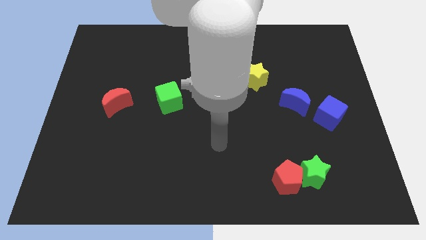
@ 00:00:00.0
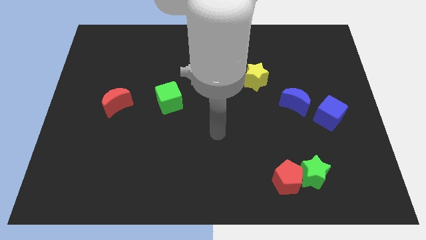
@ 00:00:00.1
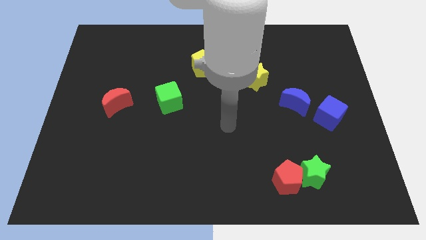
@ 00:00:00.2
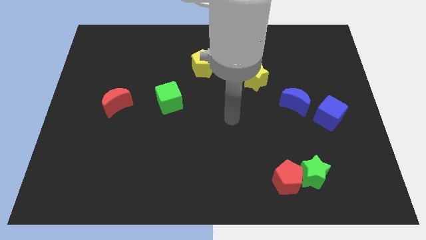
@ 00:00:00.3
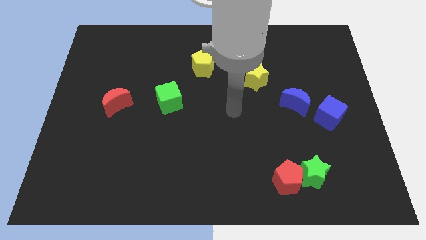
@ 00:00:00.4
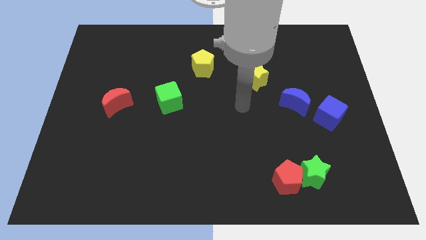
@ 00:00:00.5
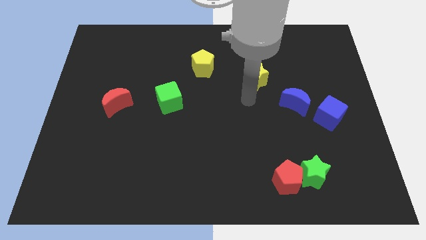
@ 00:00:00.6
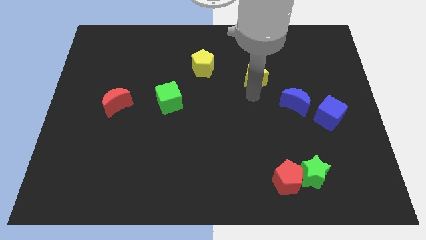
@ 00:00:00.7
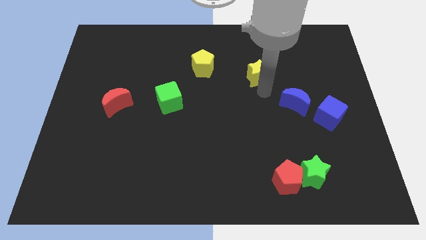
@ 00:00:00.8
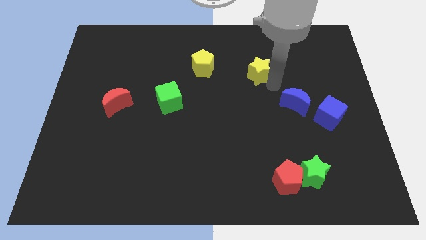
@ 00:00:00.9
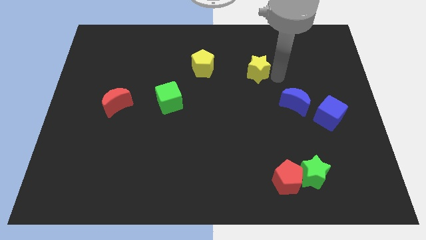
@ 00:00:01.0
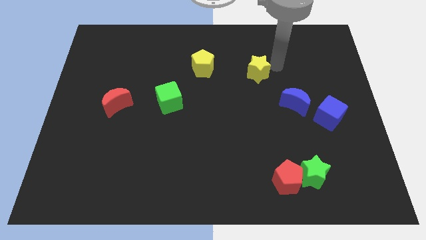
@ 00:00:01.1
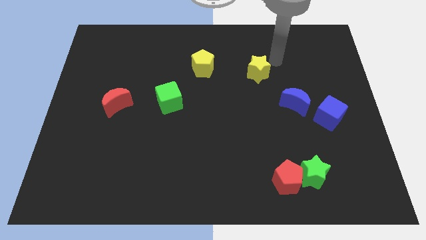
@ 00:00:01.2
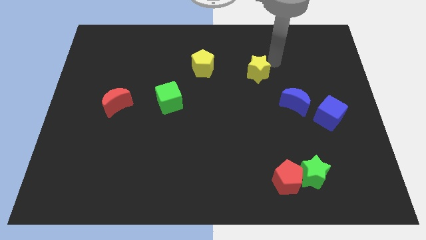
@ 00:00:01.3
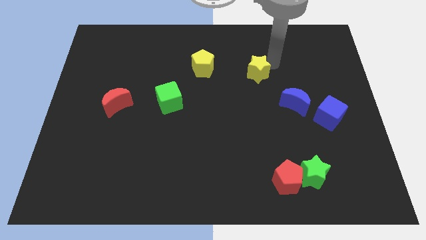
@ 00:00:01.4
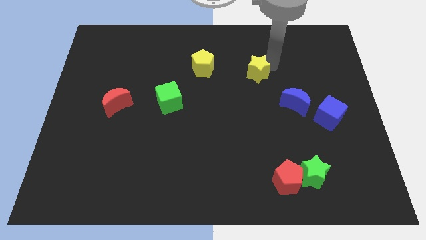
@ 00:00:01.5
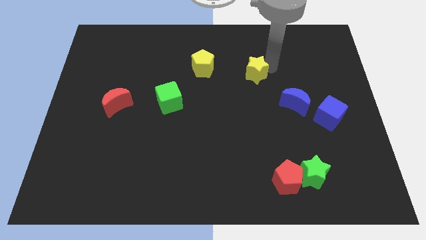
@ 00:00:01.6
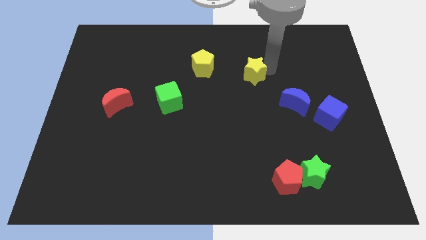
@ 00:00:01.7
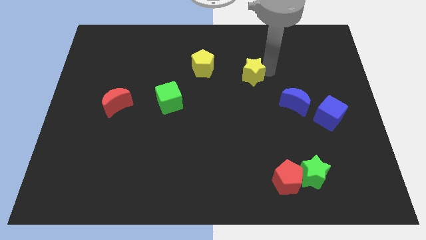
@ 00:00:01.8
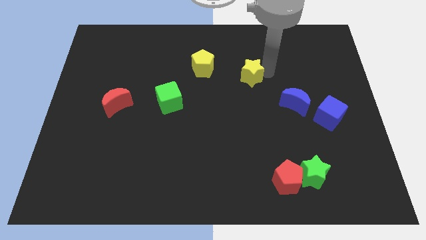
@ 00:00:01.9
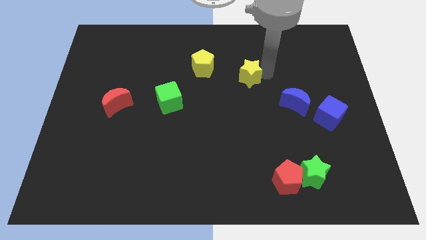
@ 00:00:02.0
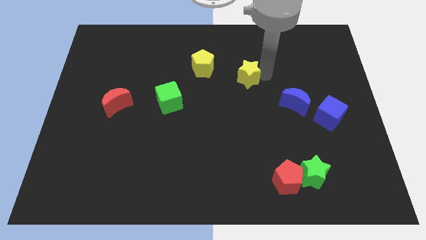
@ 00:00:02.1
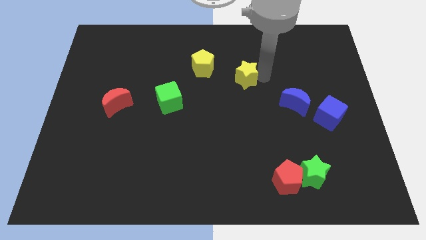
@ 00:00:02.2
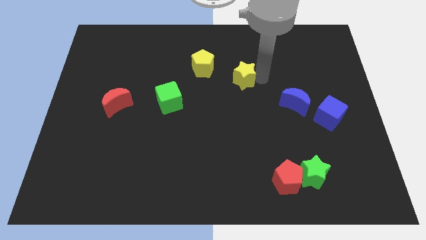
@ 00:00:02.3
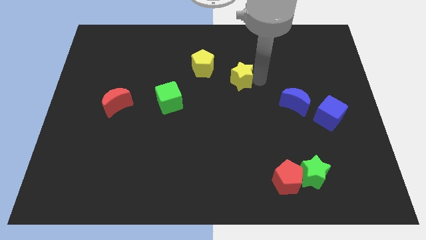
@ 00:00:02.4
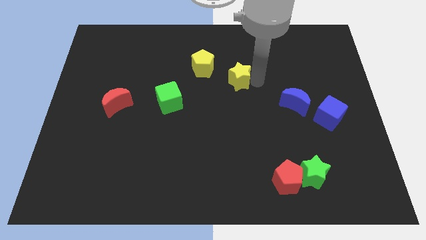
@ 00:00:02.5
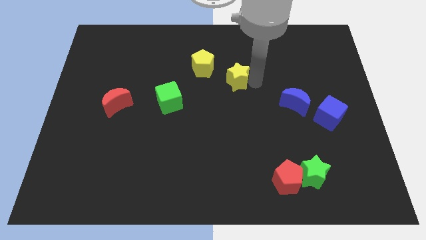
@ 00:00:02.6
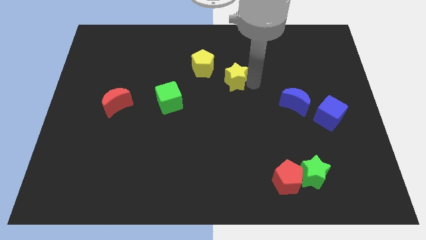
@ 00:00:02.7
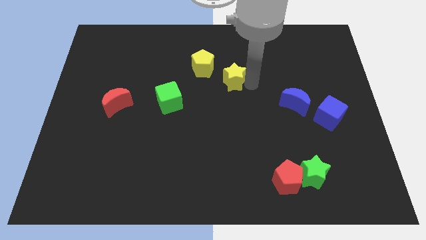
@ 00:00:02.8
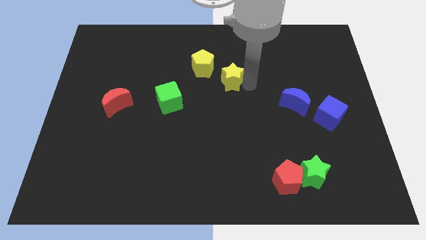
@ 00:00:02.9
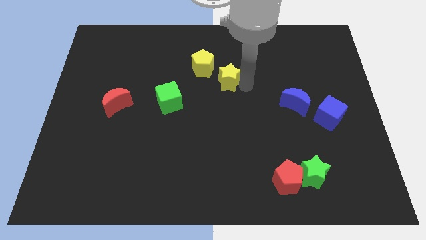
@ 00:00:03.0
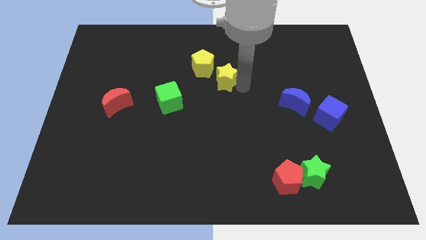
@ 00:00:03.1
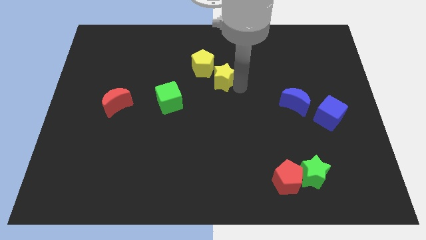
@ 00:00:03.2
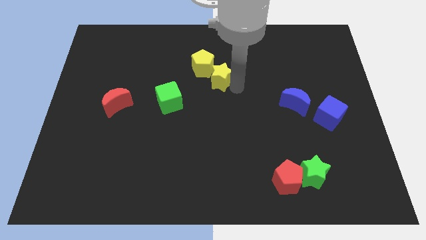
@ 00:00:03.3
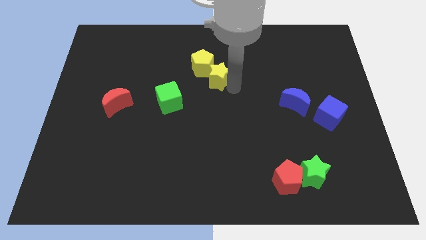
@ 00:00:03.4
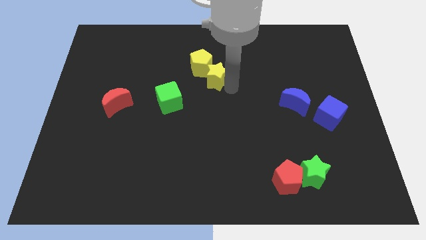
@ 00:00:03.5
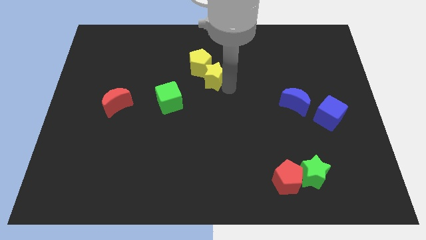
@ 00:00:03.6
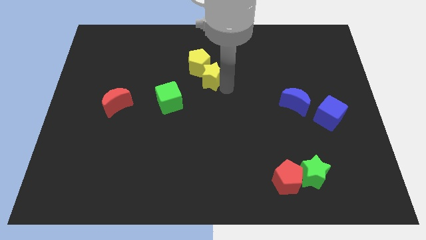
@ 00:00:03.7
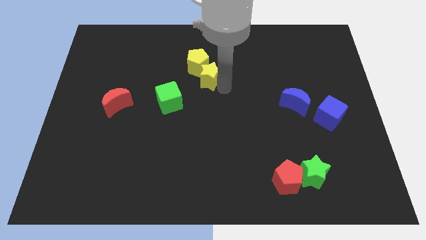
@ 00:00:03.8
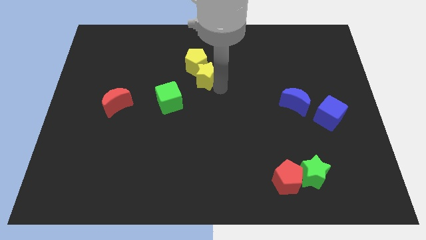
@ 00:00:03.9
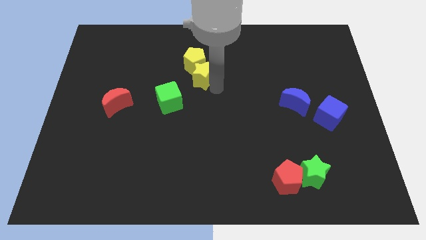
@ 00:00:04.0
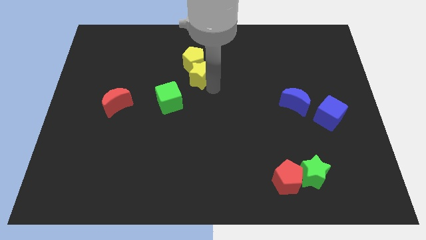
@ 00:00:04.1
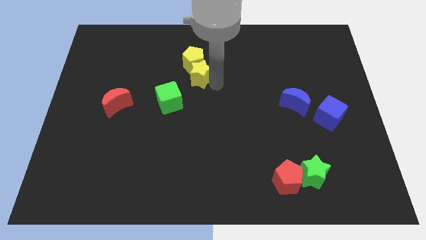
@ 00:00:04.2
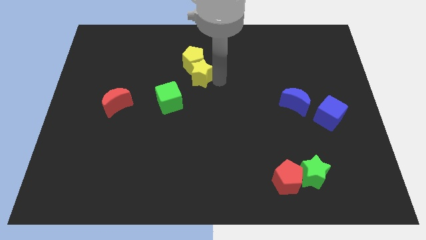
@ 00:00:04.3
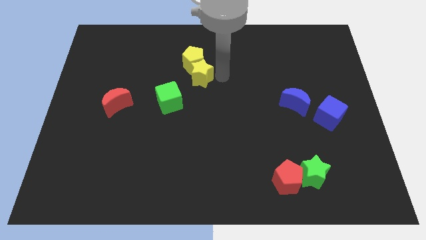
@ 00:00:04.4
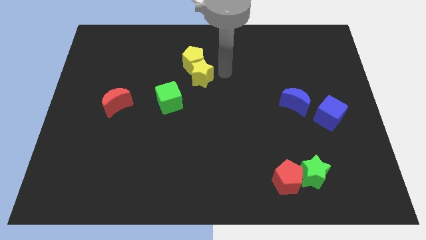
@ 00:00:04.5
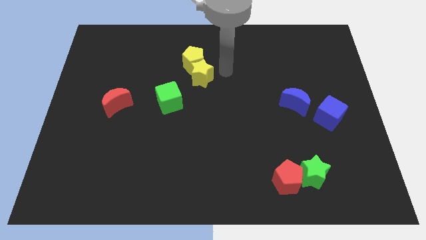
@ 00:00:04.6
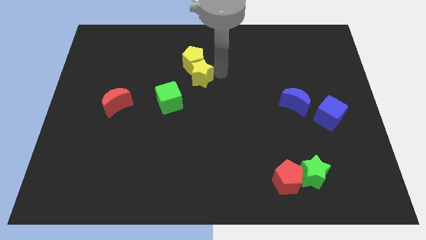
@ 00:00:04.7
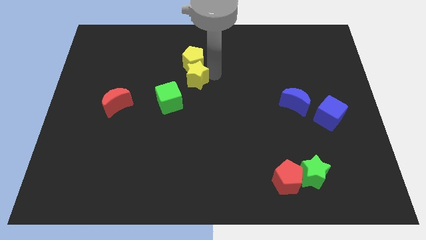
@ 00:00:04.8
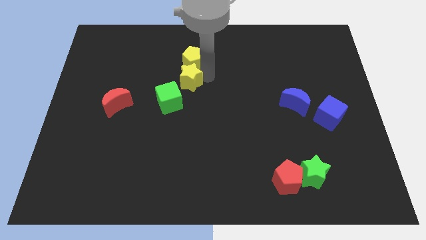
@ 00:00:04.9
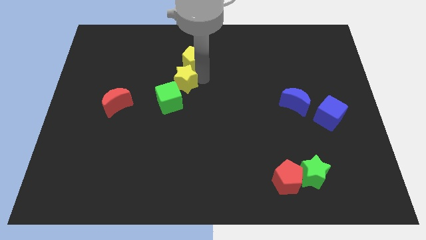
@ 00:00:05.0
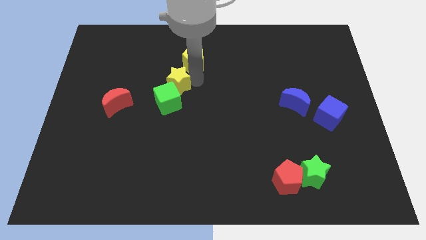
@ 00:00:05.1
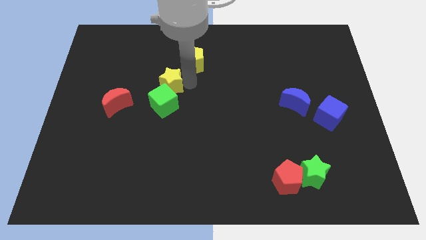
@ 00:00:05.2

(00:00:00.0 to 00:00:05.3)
slide the yellow star left

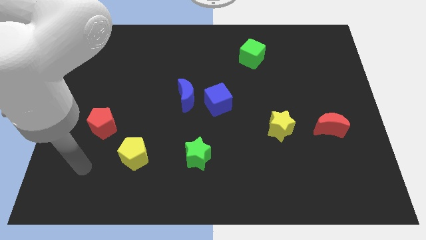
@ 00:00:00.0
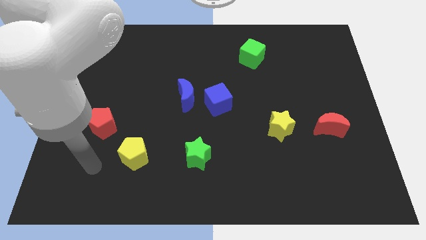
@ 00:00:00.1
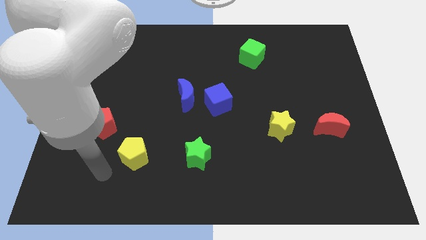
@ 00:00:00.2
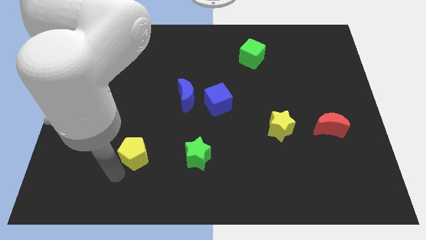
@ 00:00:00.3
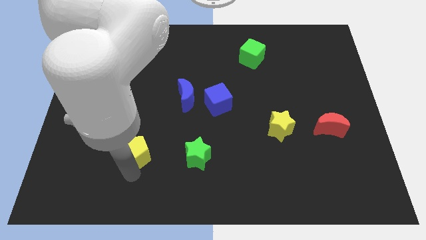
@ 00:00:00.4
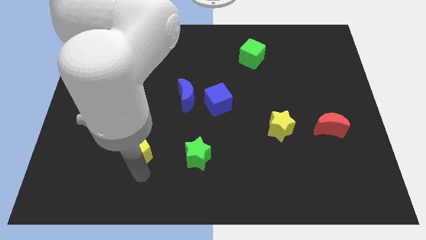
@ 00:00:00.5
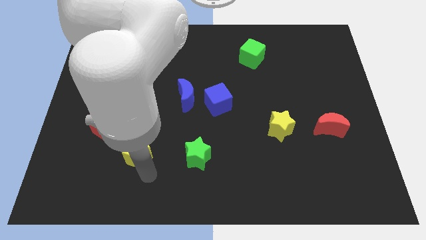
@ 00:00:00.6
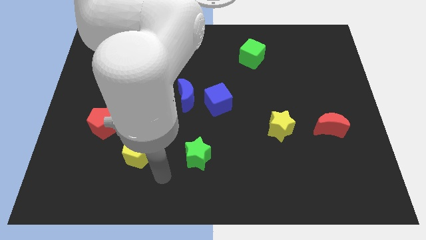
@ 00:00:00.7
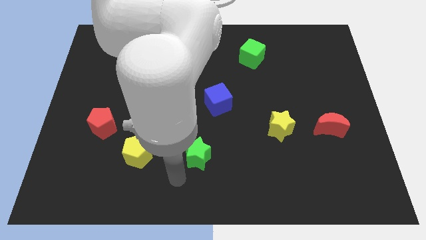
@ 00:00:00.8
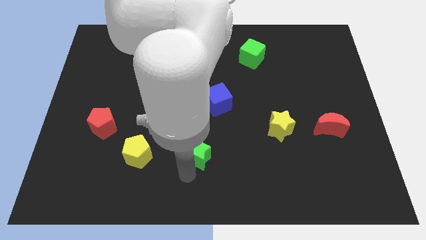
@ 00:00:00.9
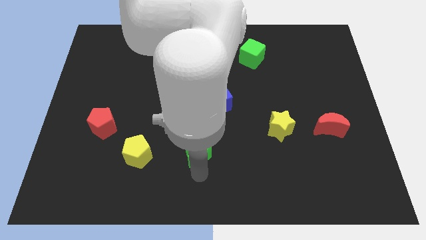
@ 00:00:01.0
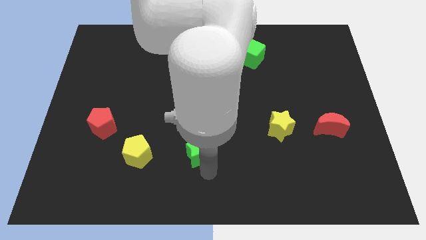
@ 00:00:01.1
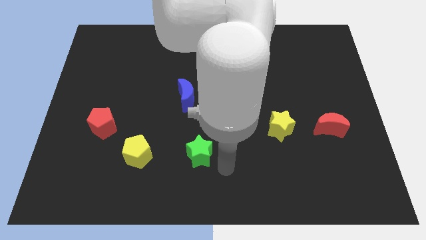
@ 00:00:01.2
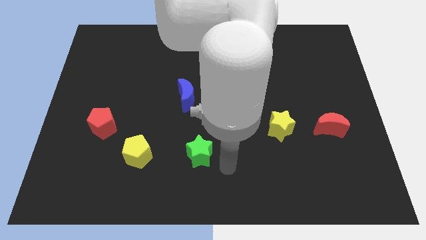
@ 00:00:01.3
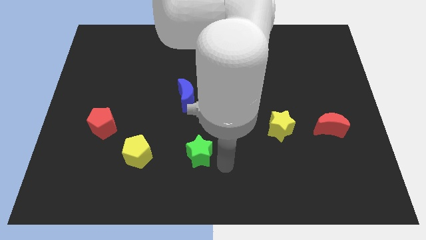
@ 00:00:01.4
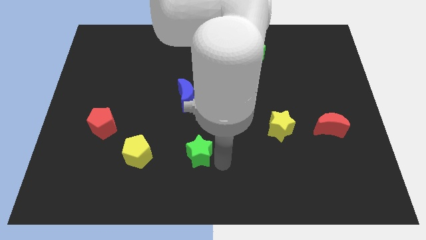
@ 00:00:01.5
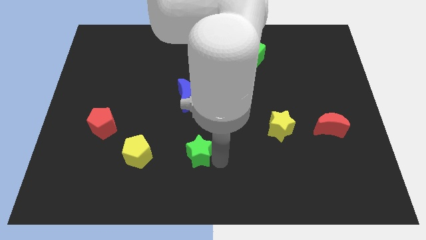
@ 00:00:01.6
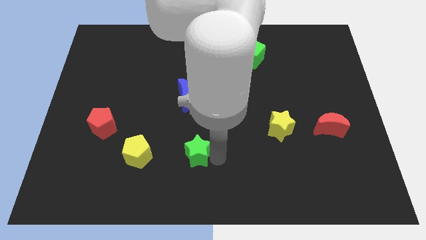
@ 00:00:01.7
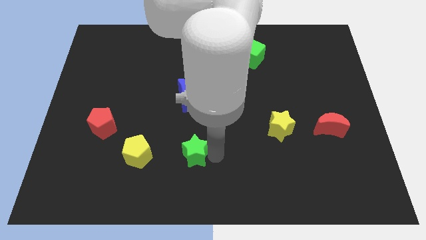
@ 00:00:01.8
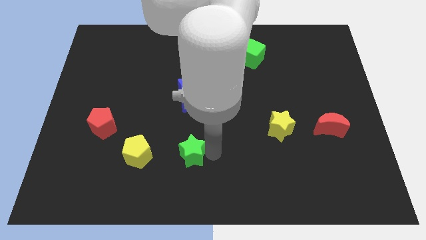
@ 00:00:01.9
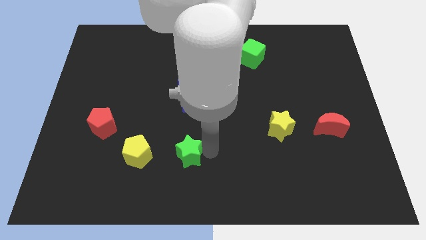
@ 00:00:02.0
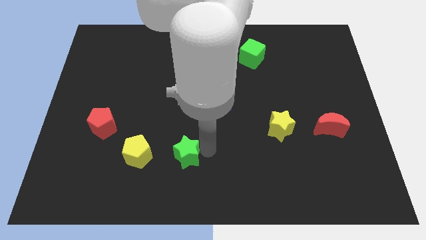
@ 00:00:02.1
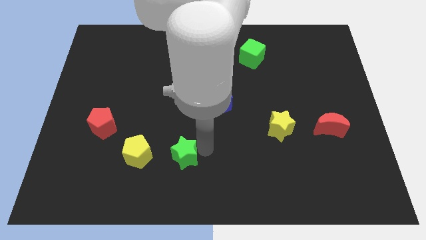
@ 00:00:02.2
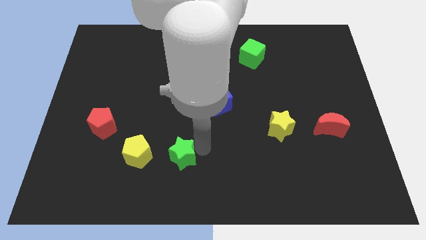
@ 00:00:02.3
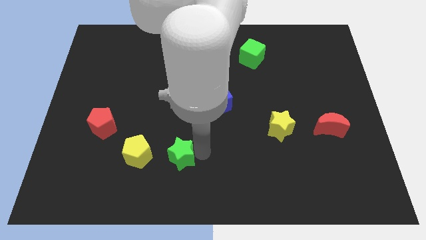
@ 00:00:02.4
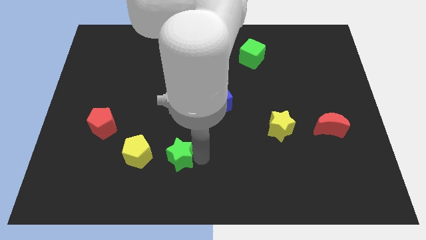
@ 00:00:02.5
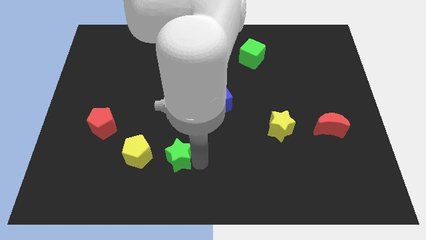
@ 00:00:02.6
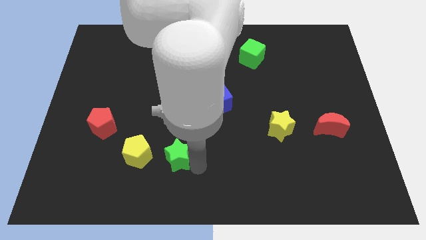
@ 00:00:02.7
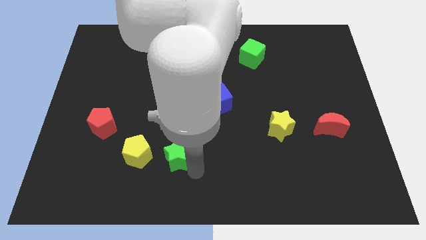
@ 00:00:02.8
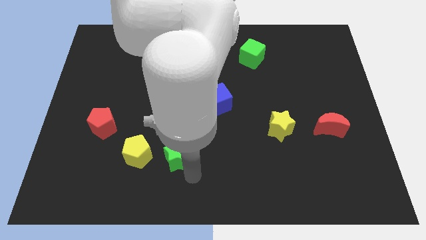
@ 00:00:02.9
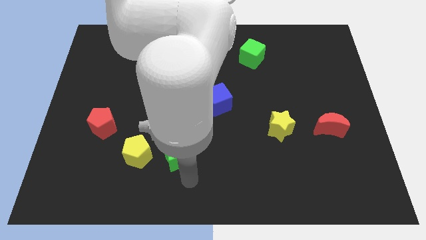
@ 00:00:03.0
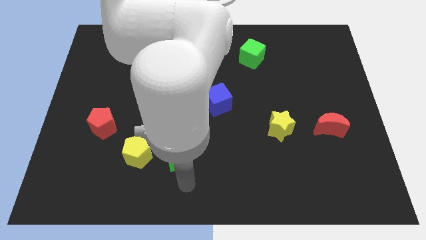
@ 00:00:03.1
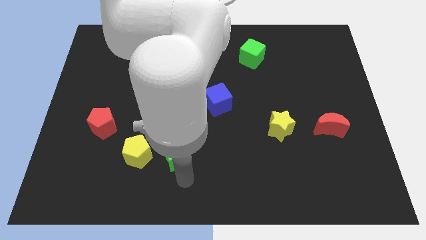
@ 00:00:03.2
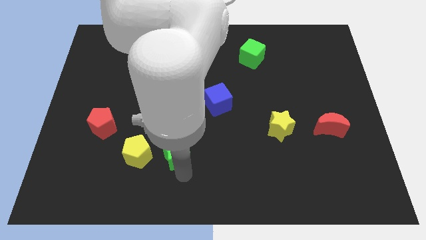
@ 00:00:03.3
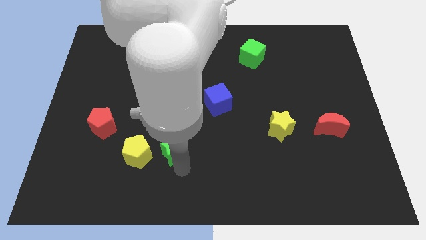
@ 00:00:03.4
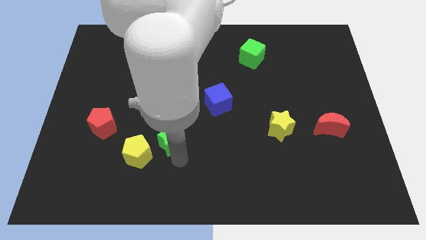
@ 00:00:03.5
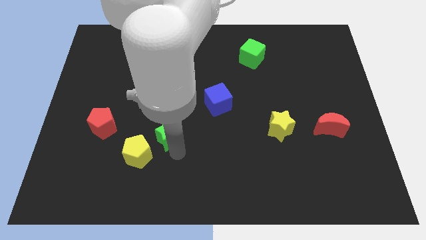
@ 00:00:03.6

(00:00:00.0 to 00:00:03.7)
slightly move the green star upwards and then left
